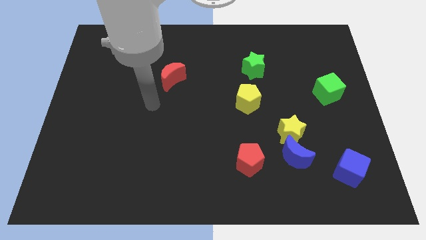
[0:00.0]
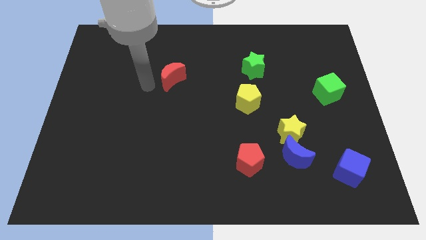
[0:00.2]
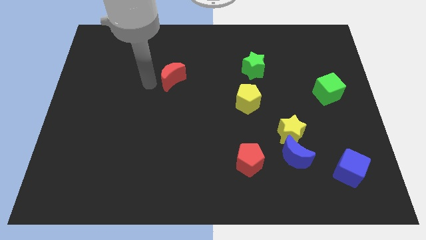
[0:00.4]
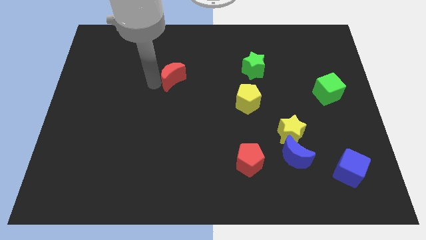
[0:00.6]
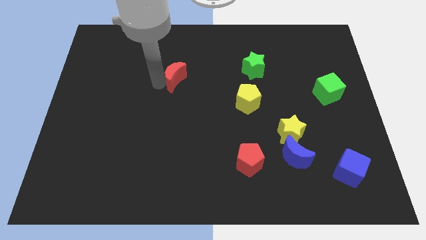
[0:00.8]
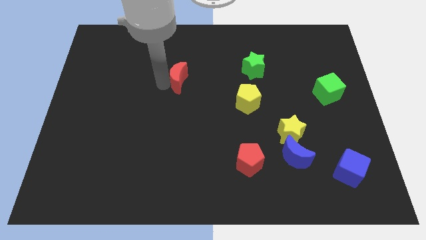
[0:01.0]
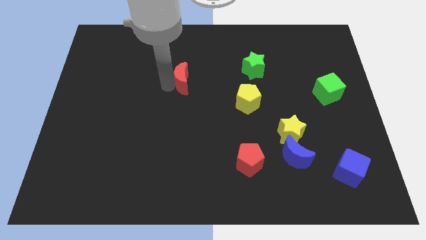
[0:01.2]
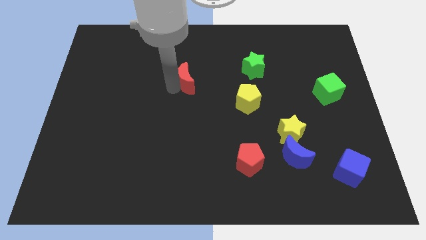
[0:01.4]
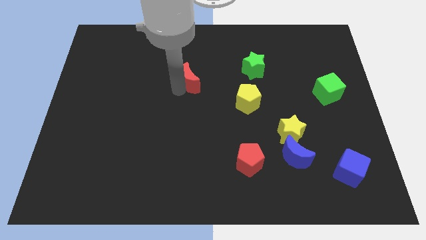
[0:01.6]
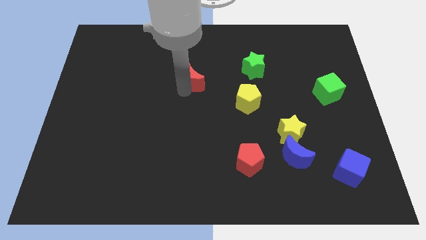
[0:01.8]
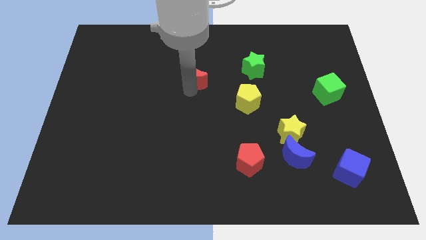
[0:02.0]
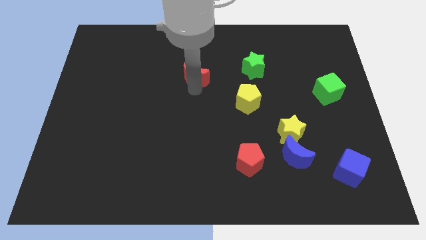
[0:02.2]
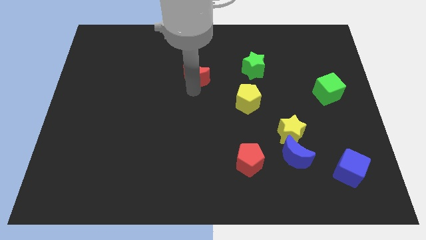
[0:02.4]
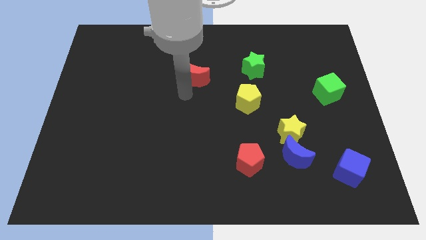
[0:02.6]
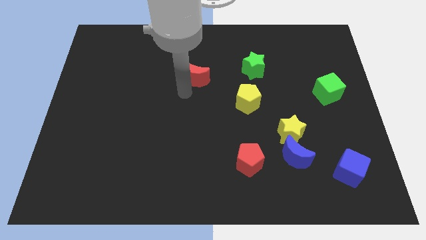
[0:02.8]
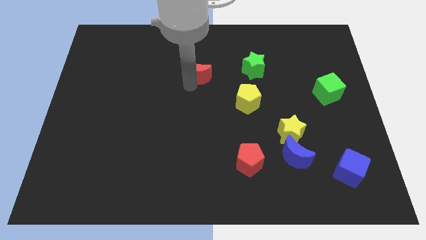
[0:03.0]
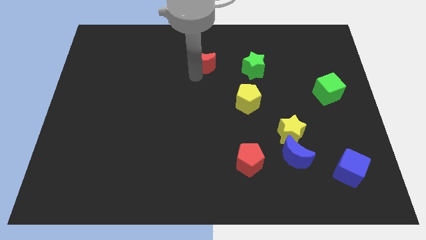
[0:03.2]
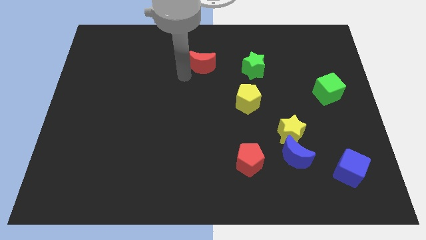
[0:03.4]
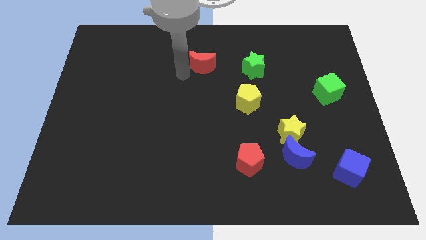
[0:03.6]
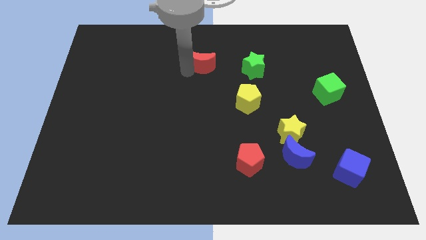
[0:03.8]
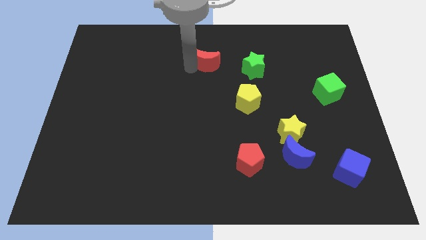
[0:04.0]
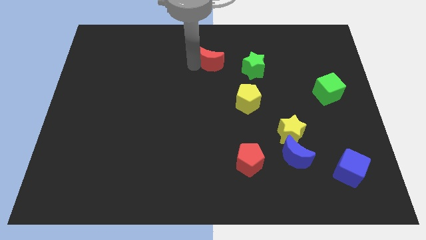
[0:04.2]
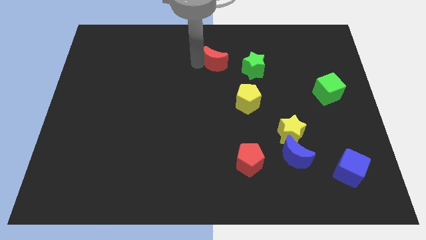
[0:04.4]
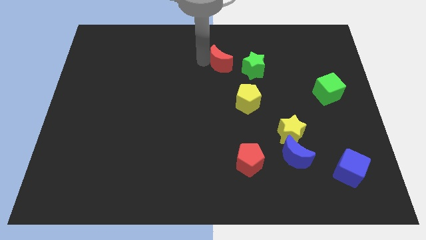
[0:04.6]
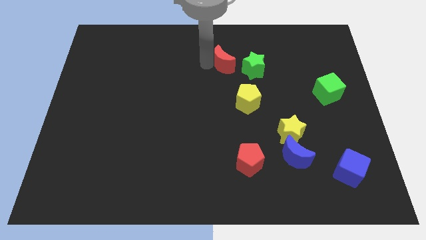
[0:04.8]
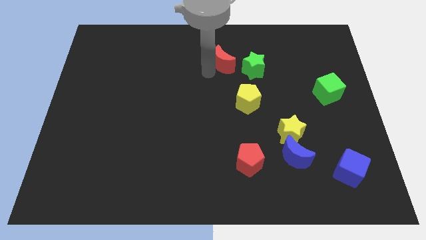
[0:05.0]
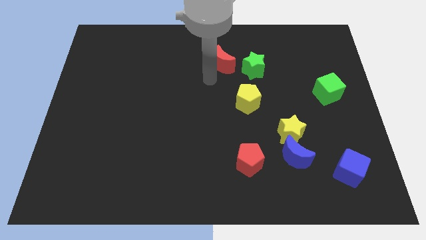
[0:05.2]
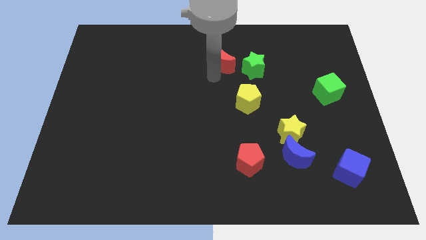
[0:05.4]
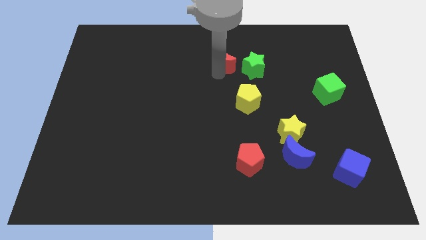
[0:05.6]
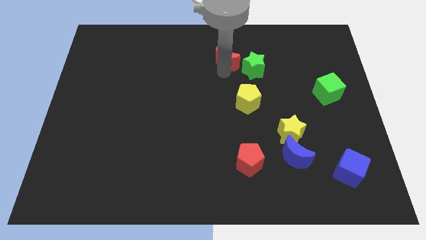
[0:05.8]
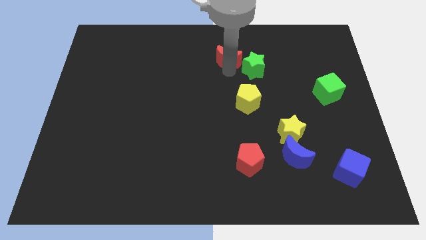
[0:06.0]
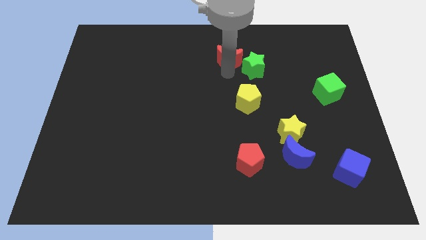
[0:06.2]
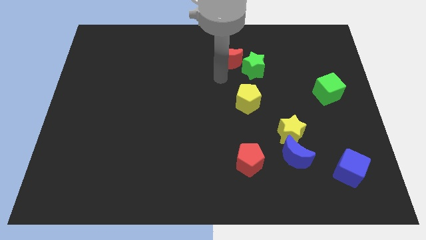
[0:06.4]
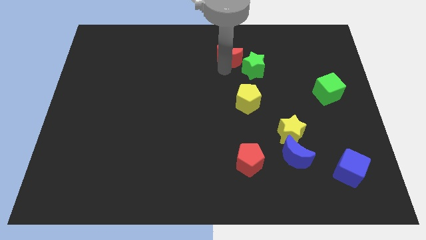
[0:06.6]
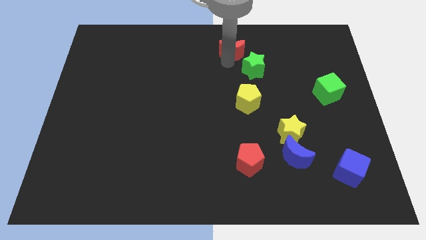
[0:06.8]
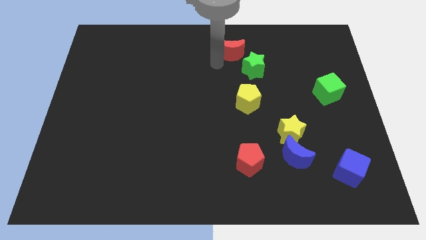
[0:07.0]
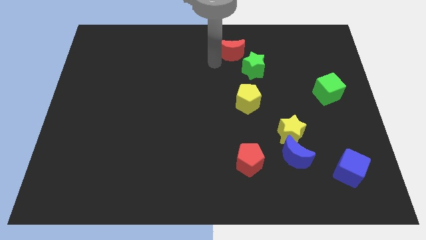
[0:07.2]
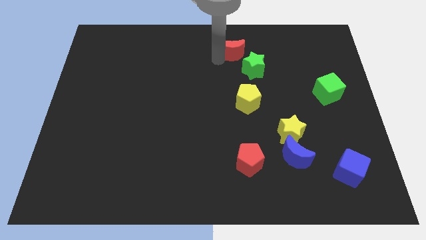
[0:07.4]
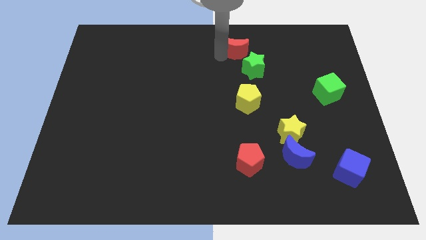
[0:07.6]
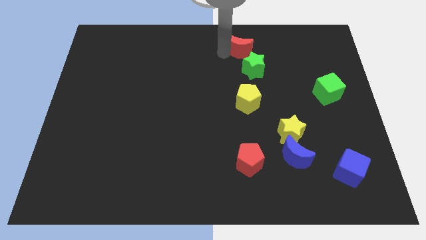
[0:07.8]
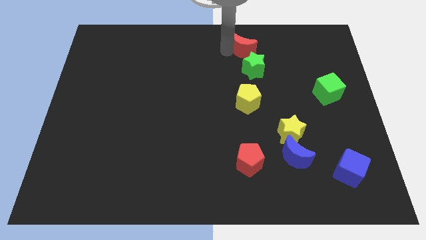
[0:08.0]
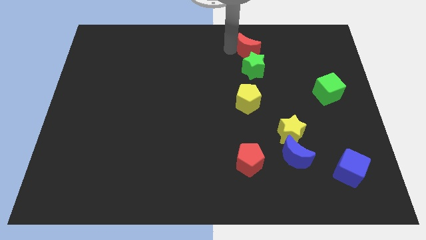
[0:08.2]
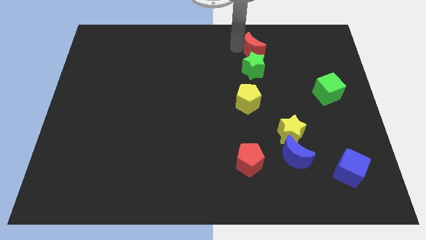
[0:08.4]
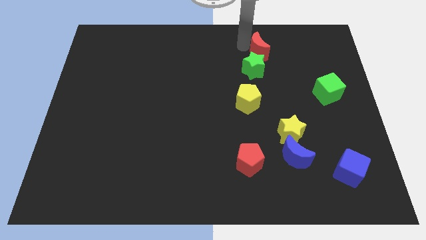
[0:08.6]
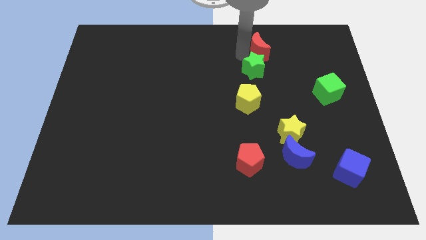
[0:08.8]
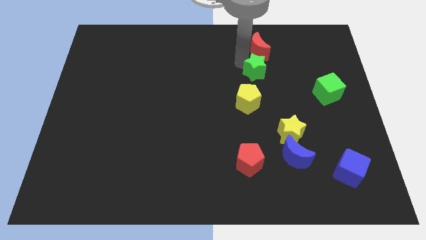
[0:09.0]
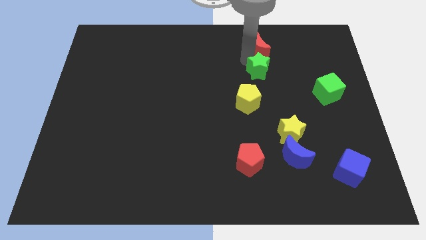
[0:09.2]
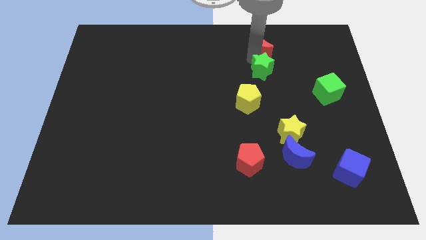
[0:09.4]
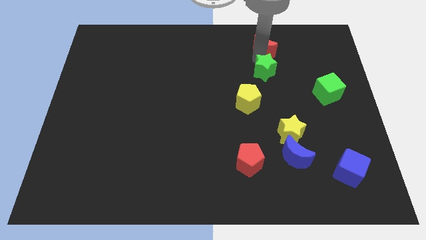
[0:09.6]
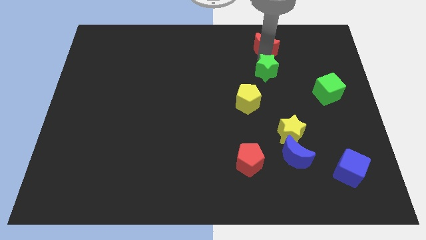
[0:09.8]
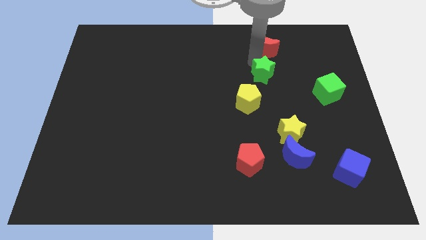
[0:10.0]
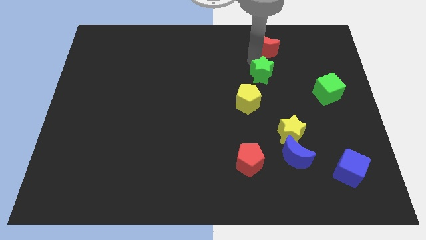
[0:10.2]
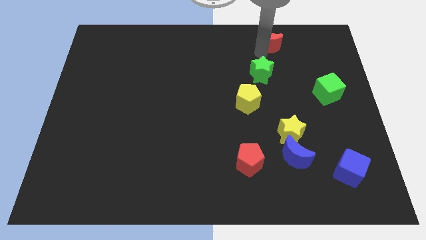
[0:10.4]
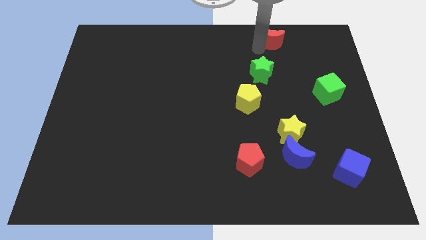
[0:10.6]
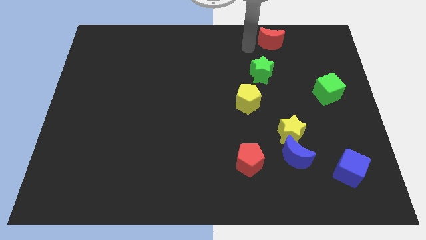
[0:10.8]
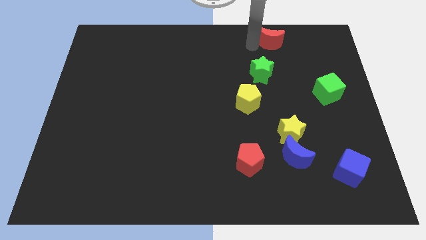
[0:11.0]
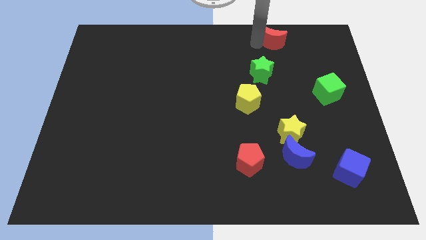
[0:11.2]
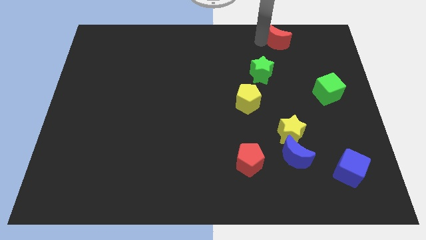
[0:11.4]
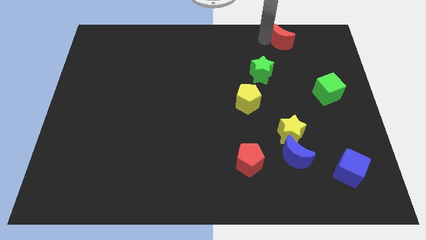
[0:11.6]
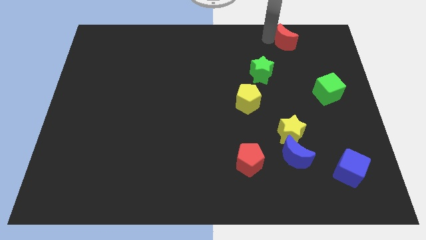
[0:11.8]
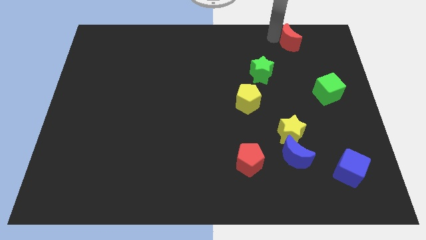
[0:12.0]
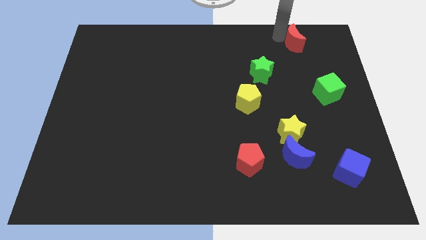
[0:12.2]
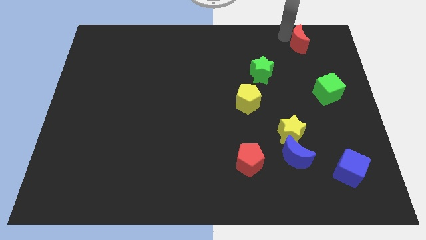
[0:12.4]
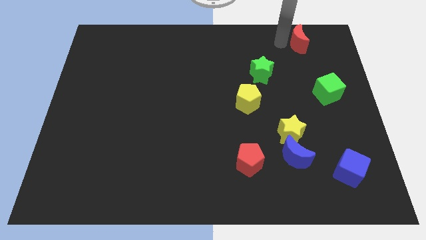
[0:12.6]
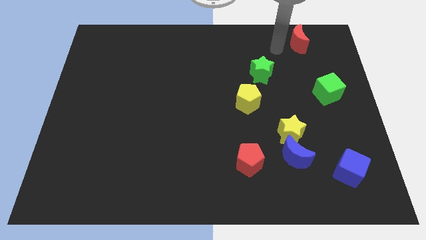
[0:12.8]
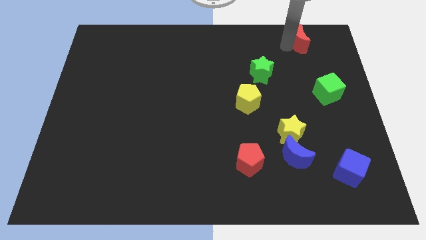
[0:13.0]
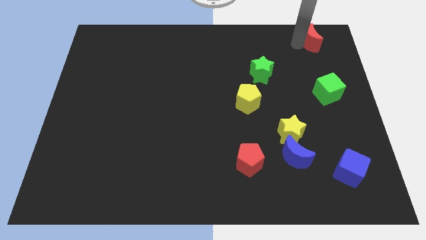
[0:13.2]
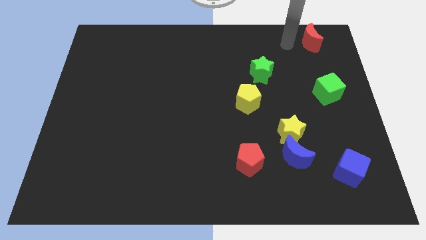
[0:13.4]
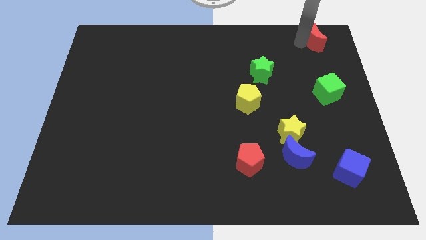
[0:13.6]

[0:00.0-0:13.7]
push the red moon to the top right of the board
